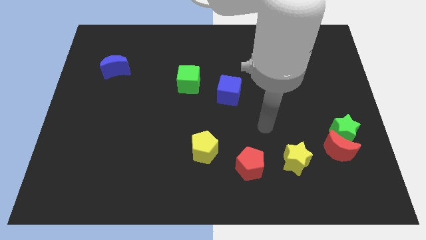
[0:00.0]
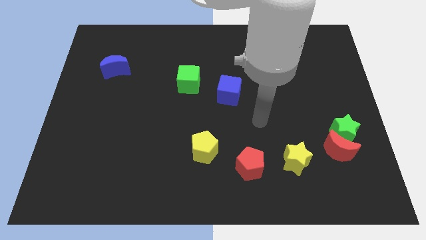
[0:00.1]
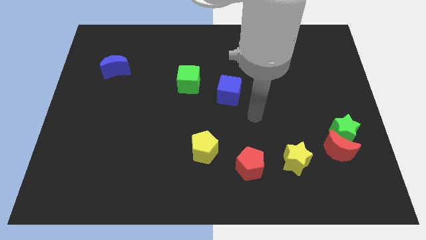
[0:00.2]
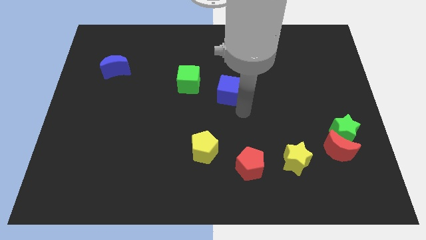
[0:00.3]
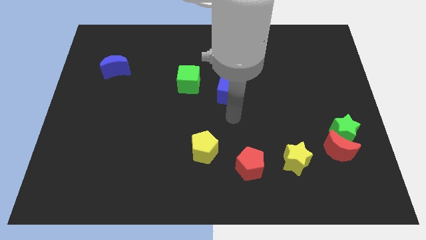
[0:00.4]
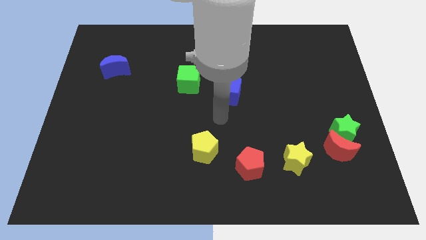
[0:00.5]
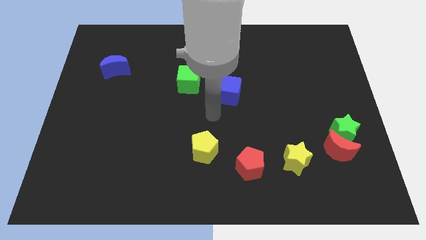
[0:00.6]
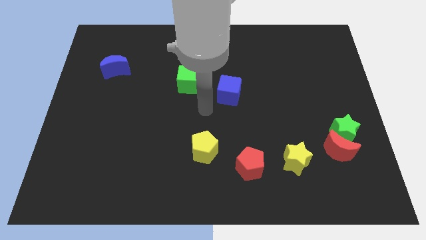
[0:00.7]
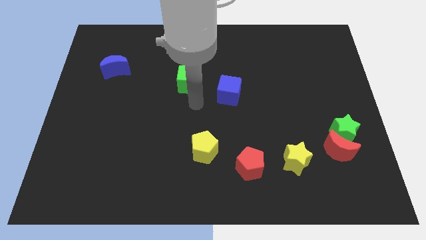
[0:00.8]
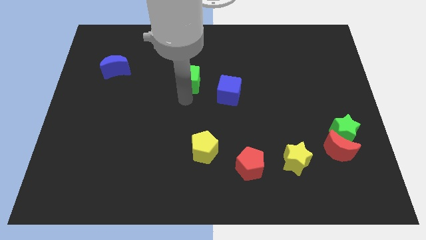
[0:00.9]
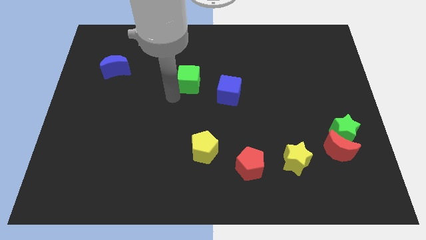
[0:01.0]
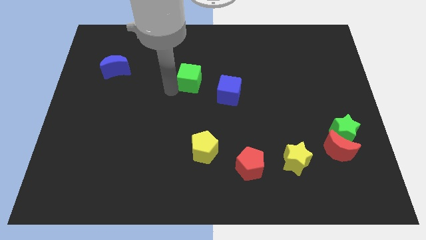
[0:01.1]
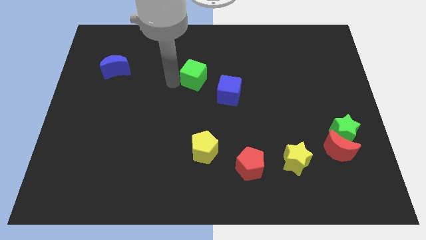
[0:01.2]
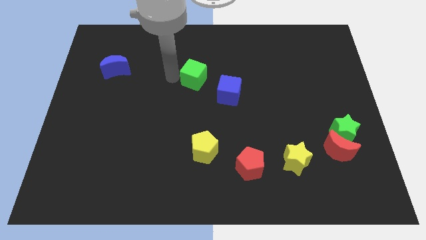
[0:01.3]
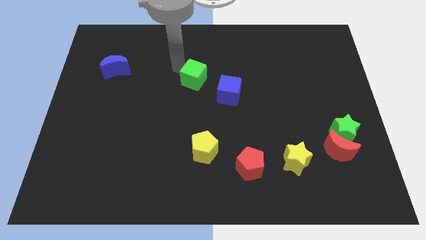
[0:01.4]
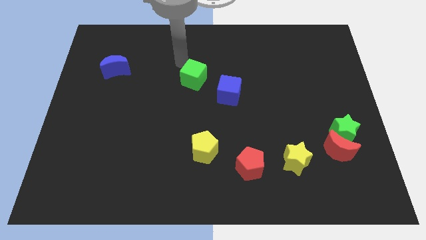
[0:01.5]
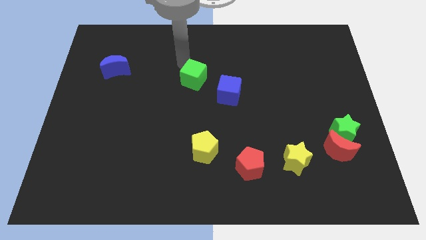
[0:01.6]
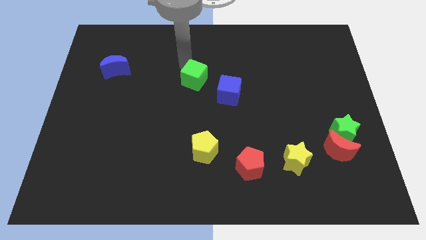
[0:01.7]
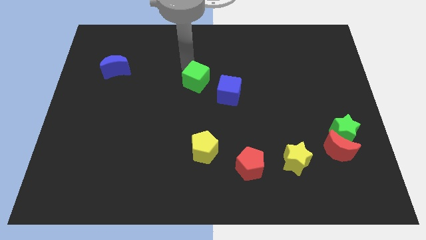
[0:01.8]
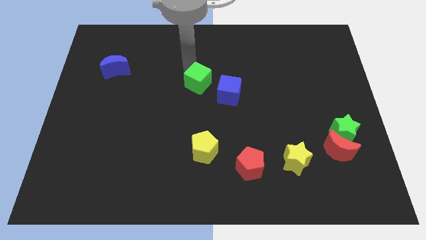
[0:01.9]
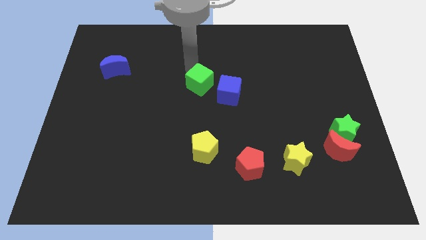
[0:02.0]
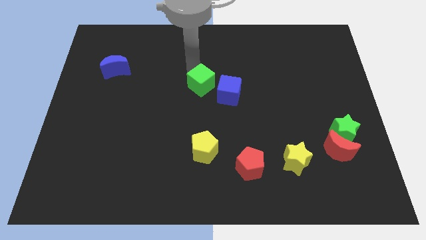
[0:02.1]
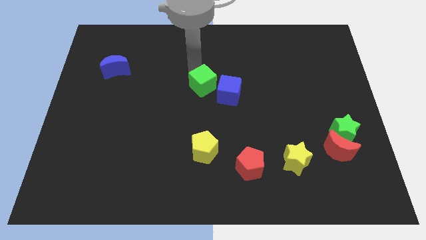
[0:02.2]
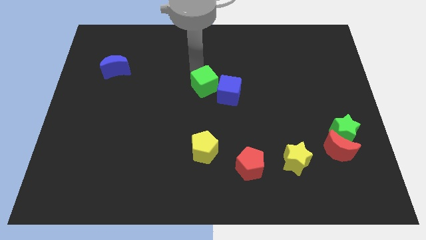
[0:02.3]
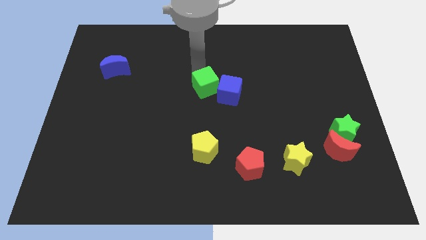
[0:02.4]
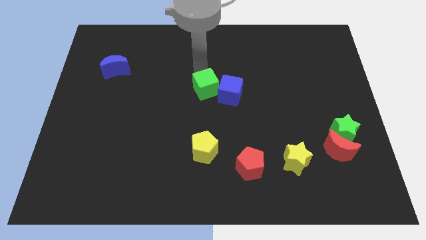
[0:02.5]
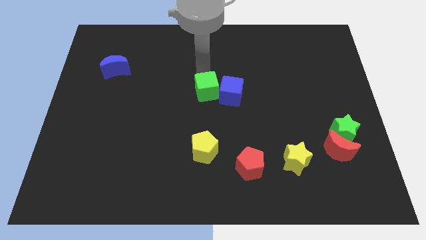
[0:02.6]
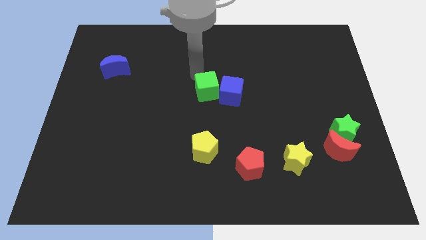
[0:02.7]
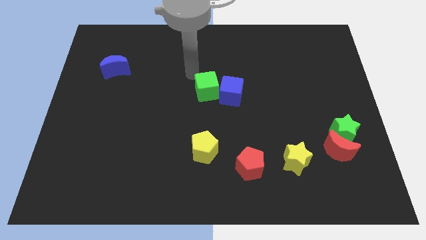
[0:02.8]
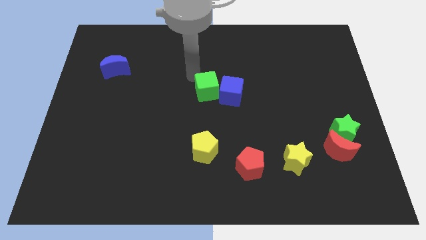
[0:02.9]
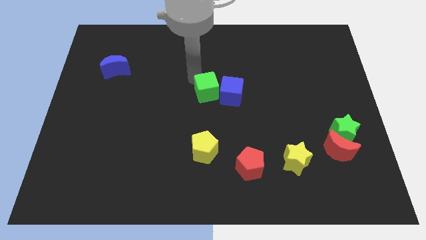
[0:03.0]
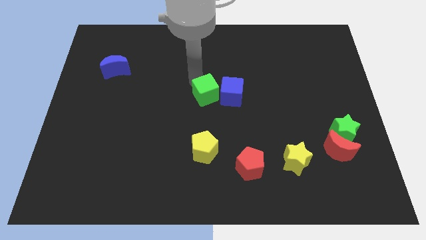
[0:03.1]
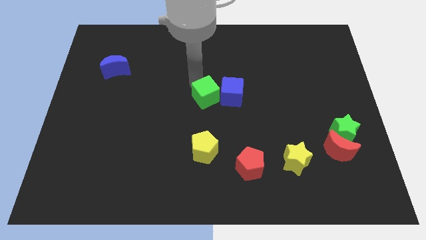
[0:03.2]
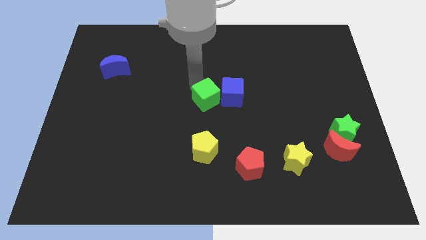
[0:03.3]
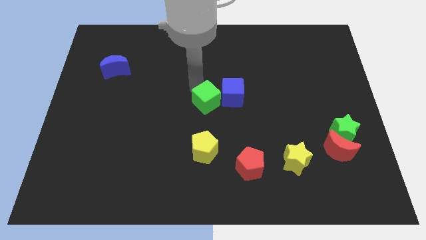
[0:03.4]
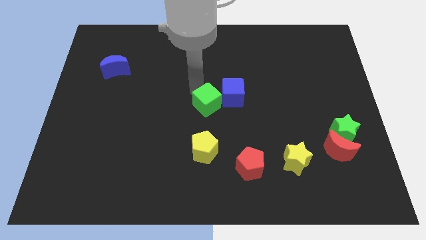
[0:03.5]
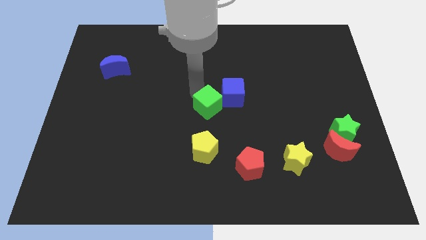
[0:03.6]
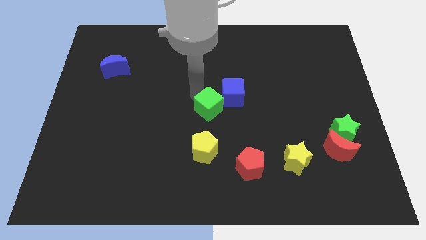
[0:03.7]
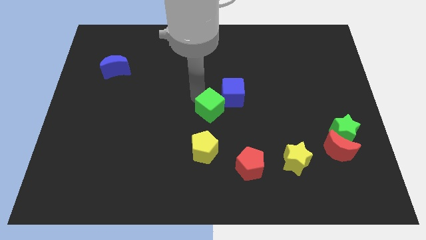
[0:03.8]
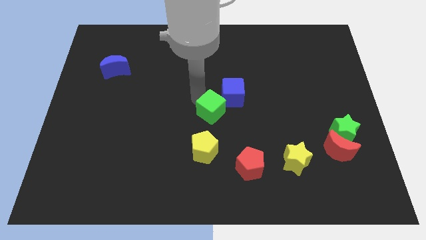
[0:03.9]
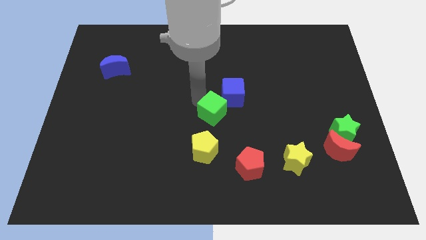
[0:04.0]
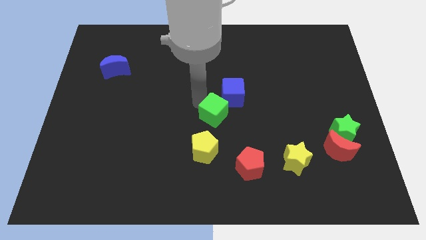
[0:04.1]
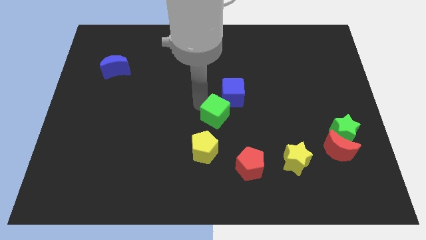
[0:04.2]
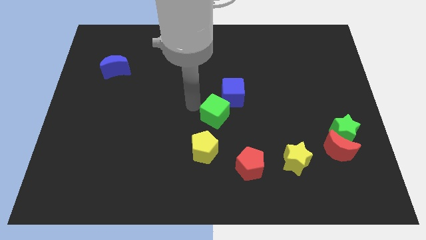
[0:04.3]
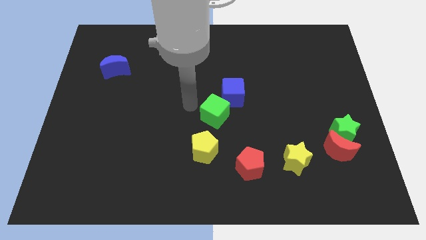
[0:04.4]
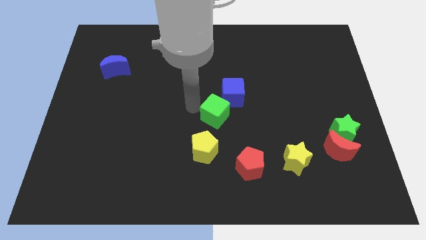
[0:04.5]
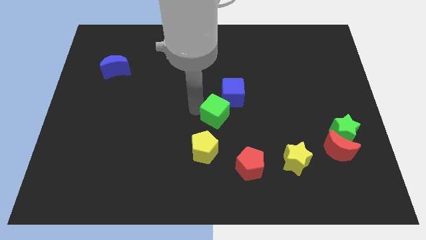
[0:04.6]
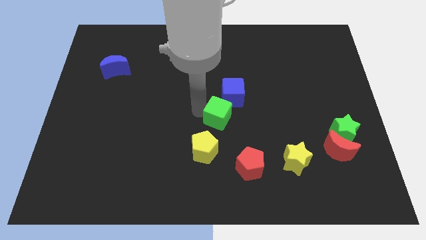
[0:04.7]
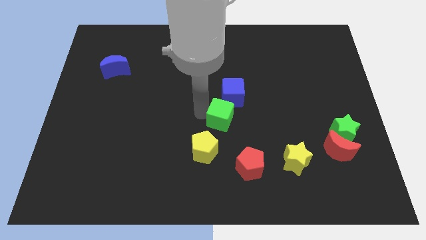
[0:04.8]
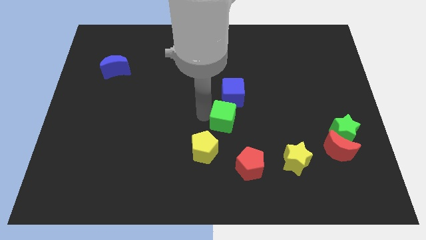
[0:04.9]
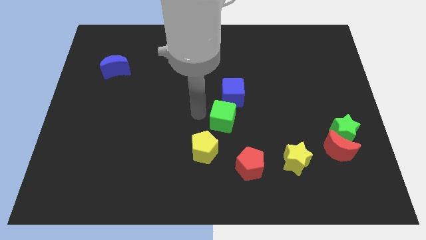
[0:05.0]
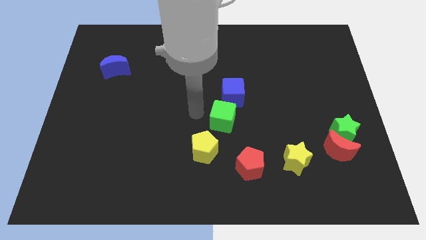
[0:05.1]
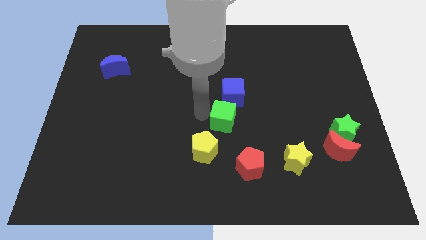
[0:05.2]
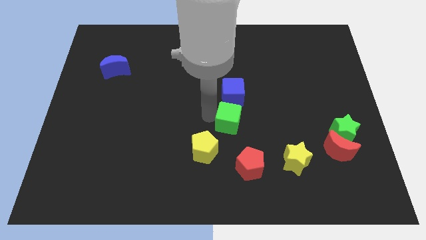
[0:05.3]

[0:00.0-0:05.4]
put the green cube above the red pentagon

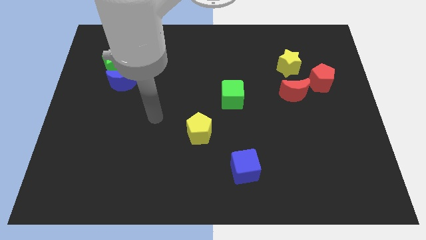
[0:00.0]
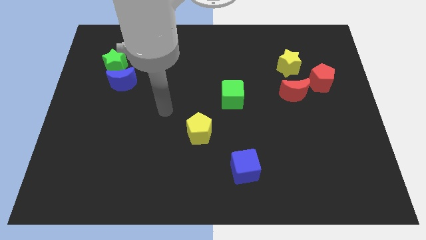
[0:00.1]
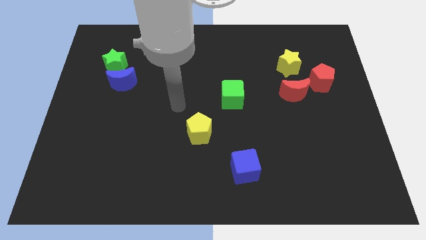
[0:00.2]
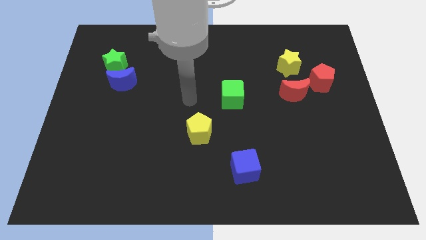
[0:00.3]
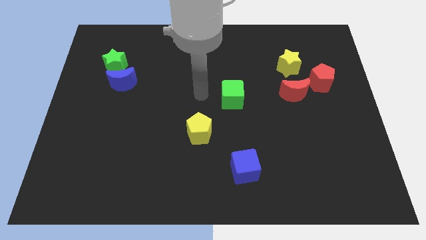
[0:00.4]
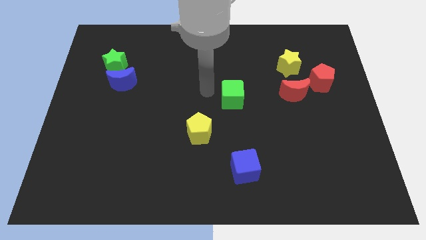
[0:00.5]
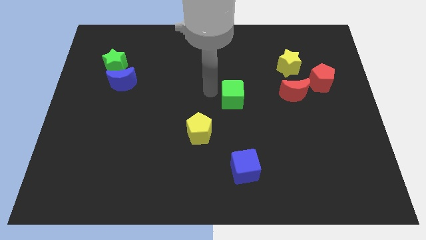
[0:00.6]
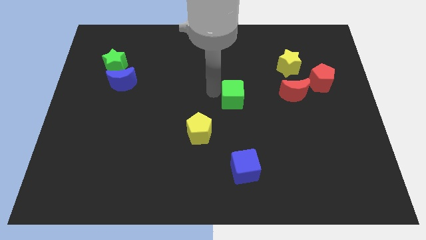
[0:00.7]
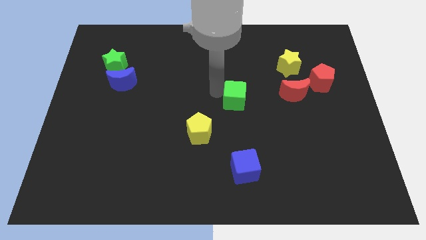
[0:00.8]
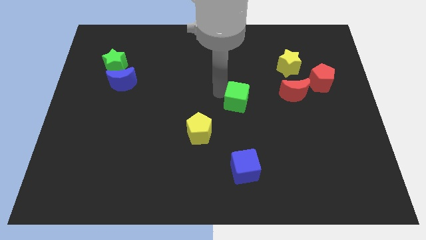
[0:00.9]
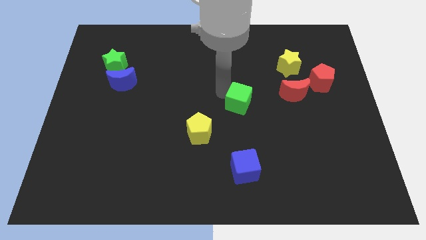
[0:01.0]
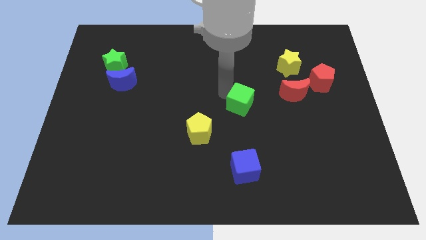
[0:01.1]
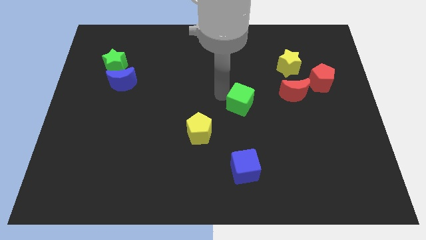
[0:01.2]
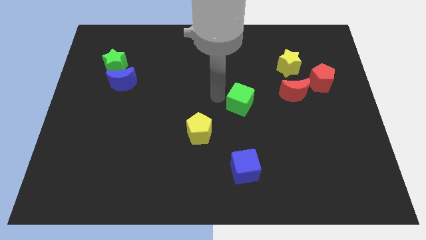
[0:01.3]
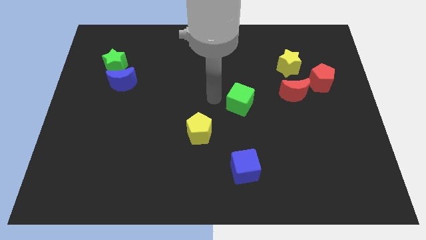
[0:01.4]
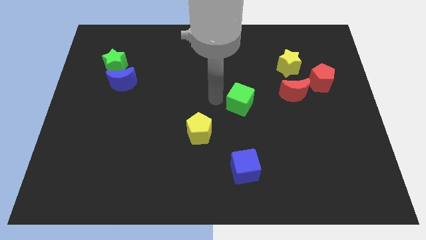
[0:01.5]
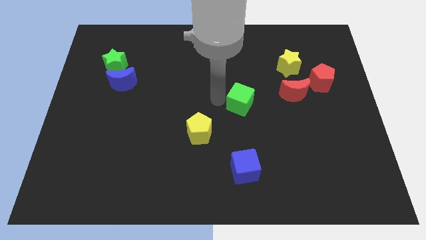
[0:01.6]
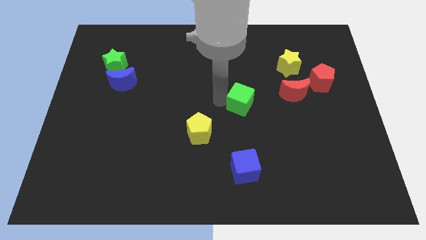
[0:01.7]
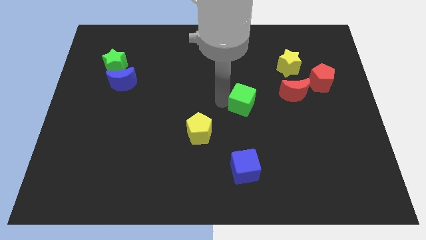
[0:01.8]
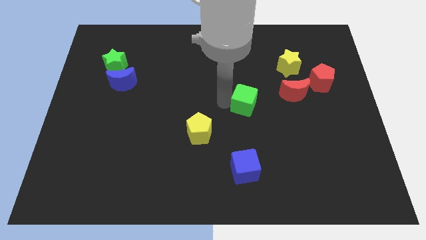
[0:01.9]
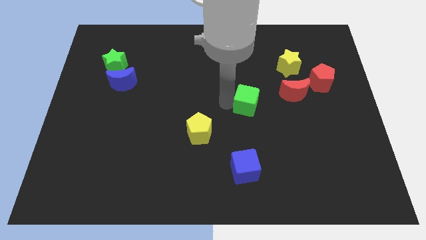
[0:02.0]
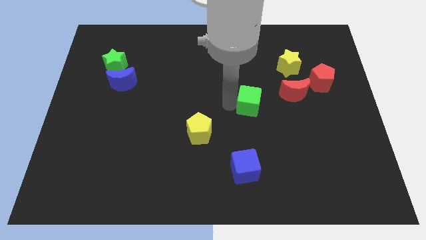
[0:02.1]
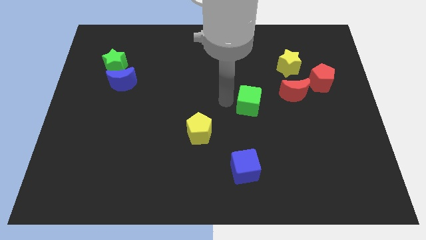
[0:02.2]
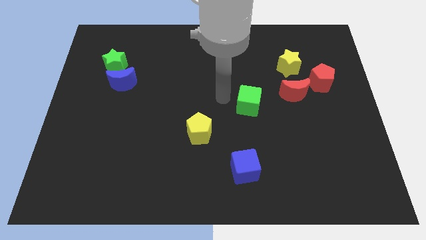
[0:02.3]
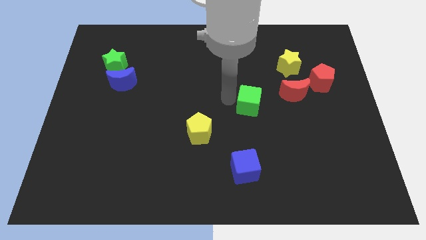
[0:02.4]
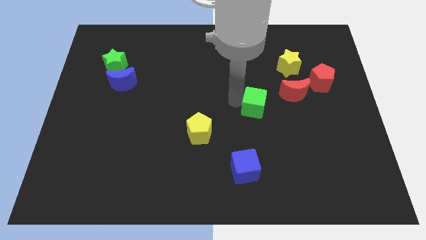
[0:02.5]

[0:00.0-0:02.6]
slide the green cube to the bottom left of the red moon

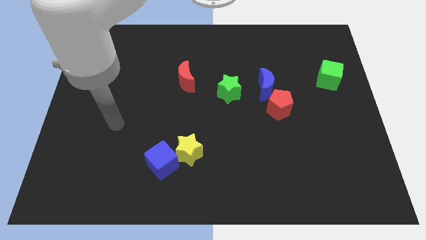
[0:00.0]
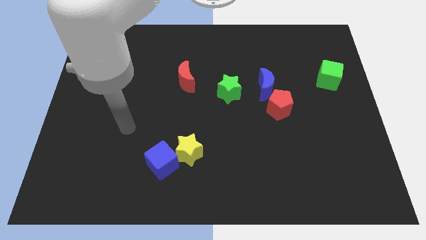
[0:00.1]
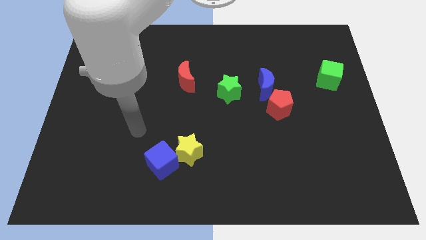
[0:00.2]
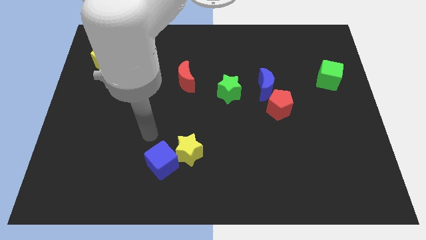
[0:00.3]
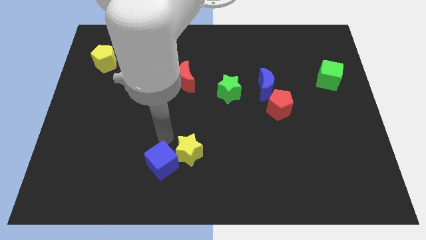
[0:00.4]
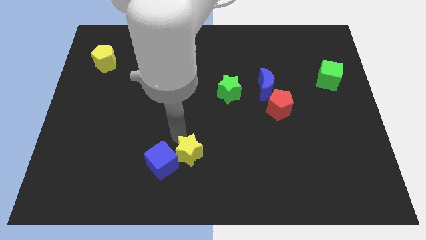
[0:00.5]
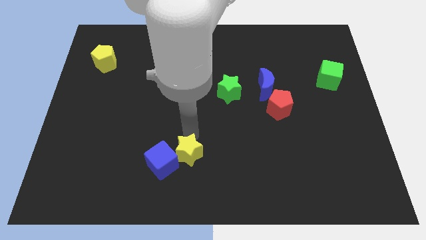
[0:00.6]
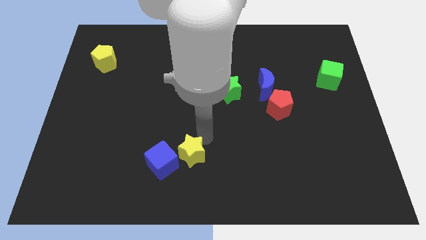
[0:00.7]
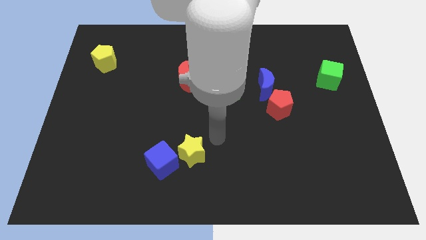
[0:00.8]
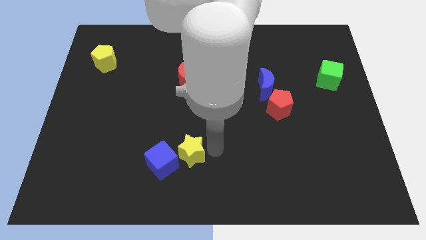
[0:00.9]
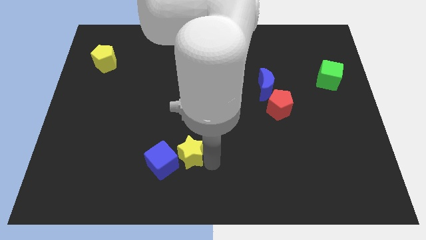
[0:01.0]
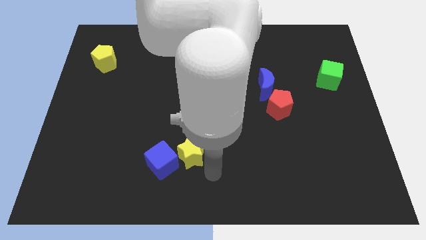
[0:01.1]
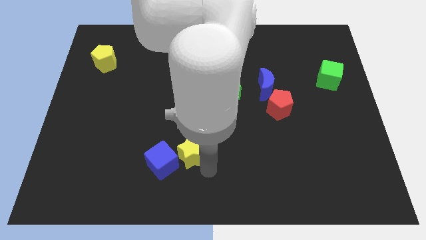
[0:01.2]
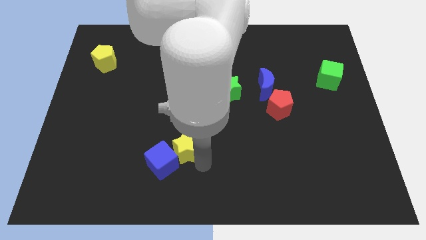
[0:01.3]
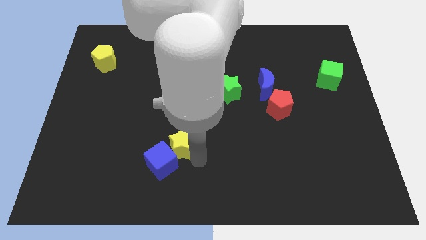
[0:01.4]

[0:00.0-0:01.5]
slide the yellow star to the top side of the blue cube
